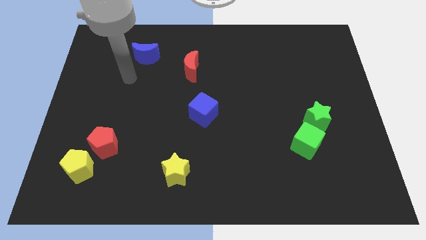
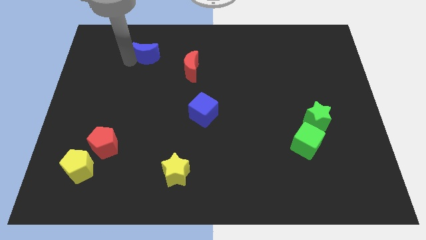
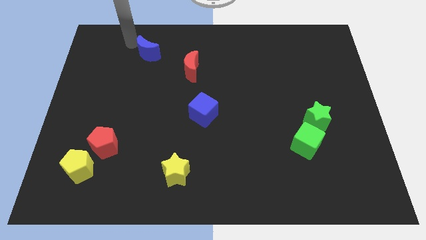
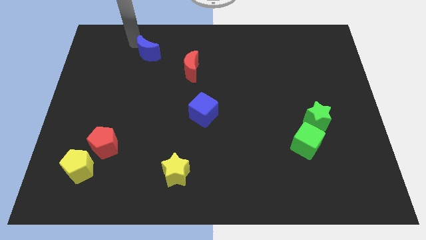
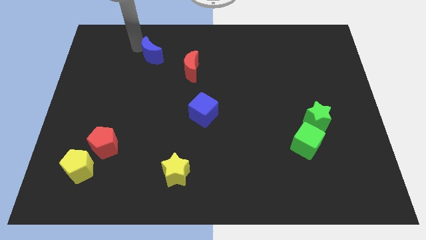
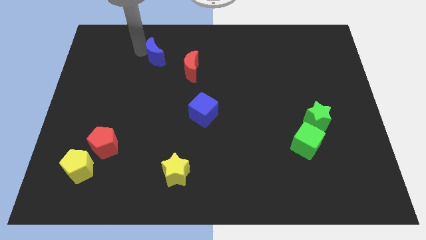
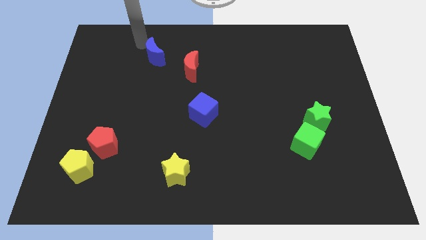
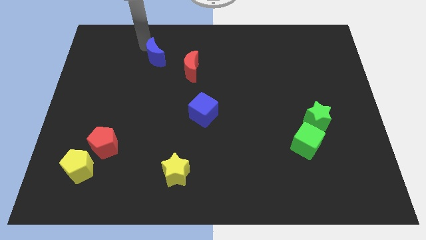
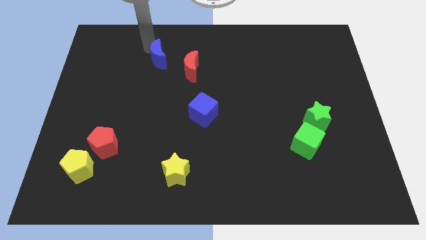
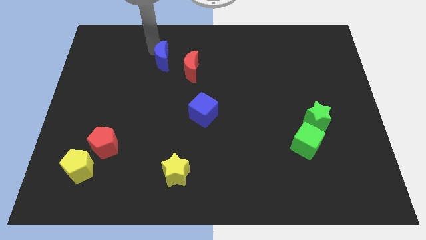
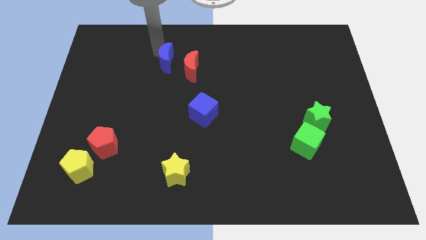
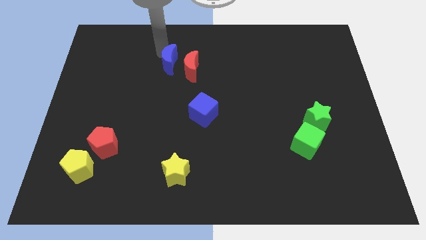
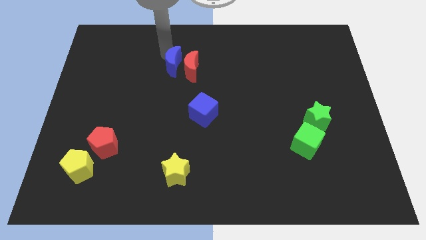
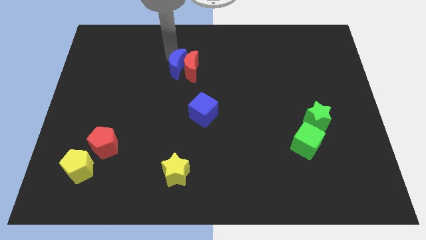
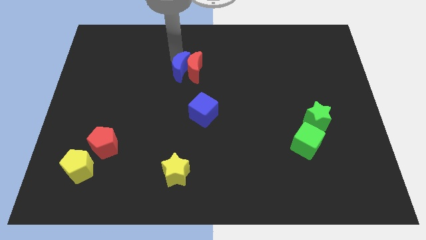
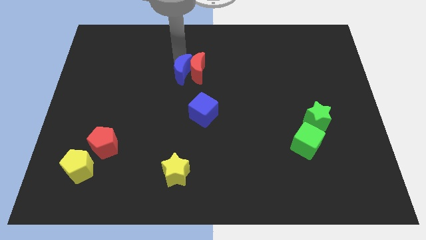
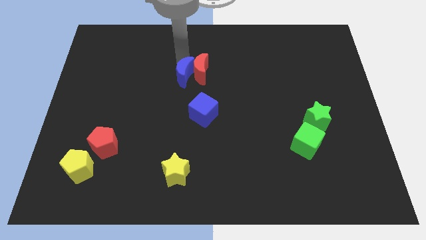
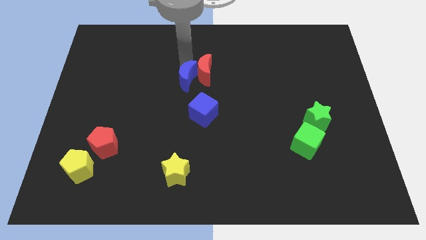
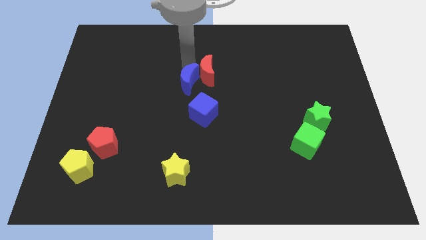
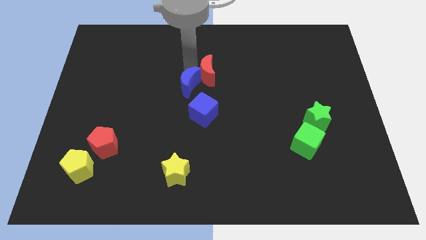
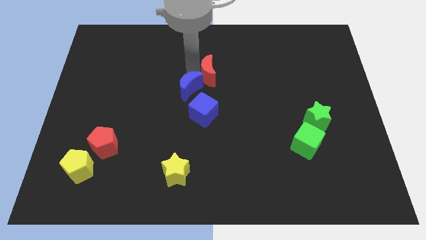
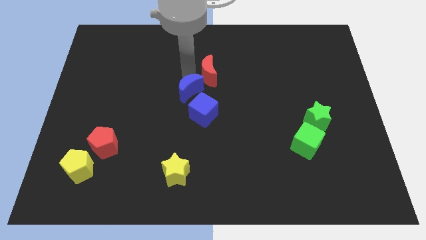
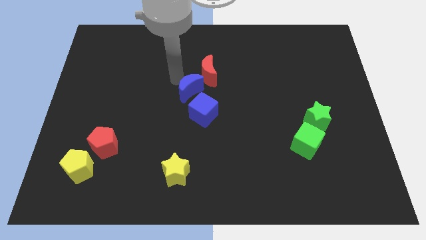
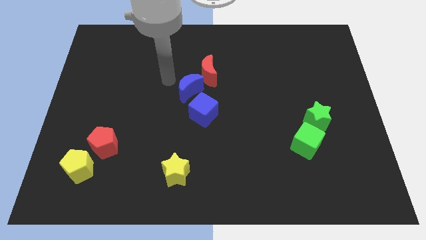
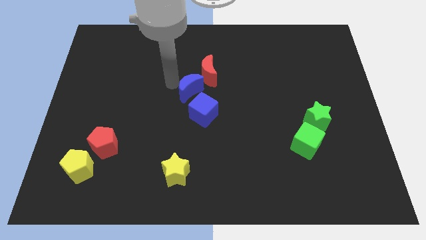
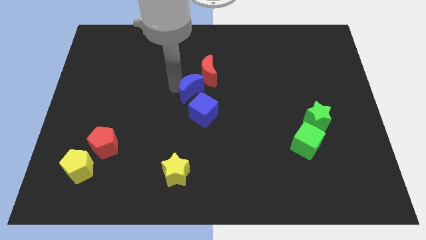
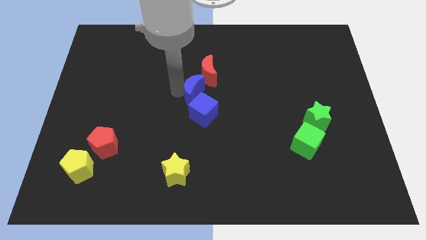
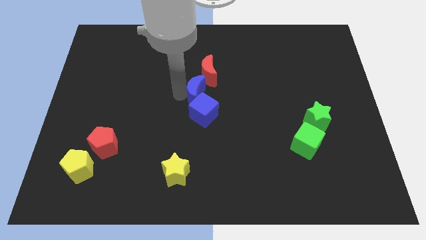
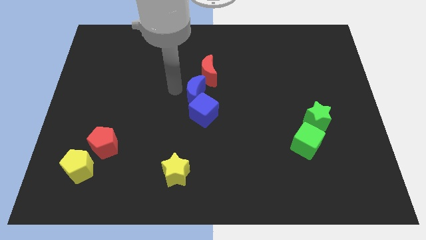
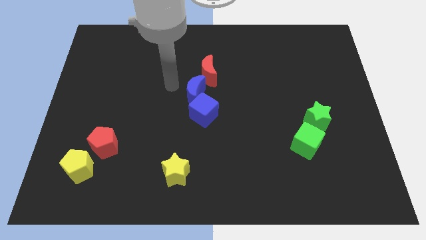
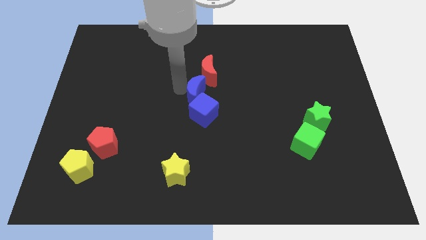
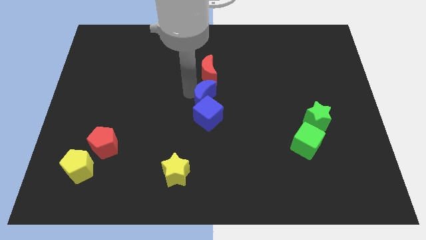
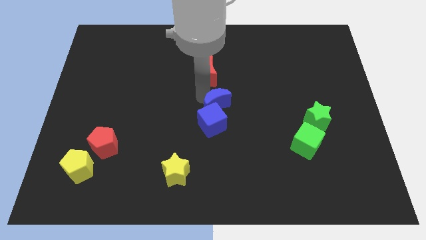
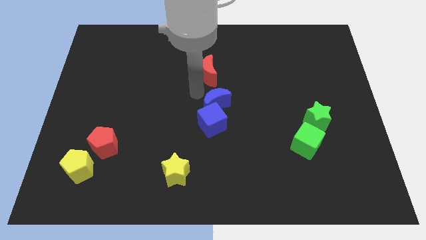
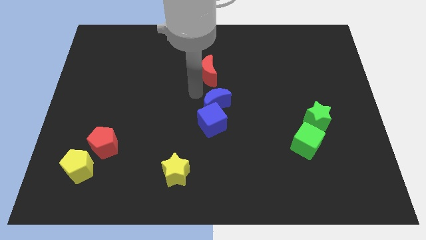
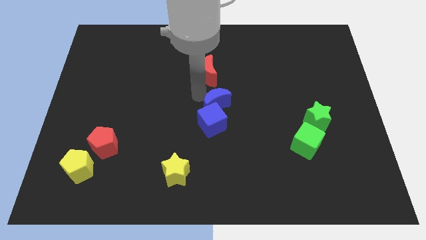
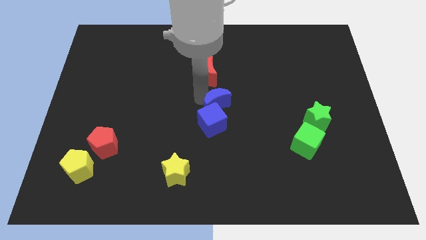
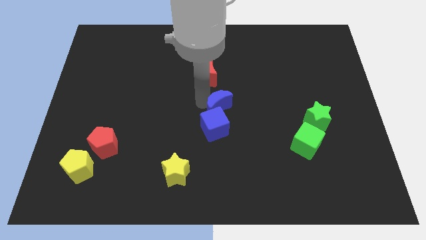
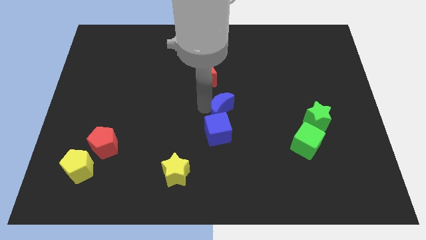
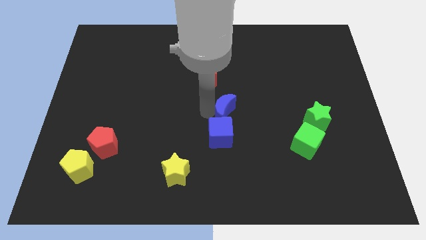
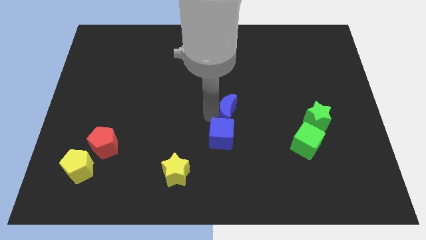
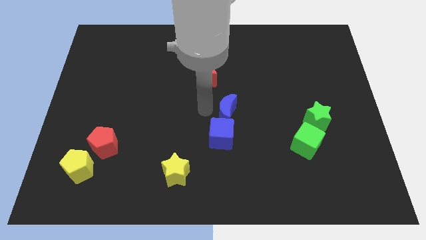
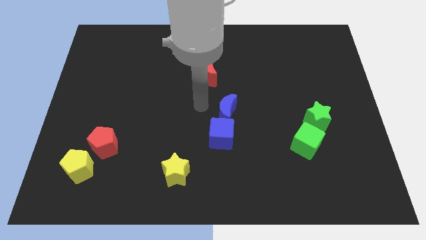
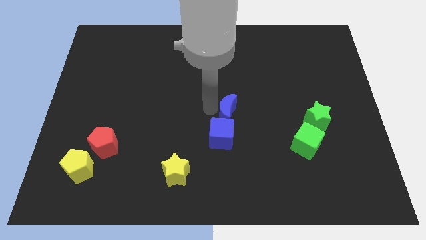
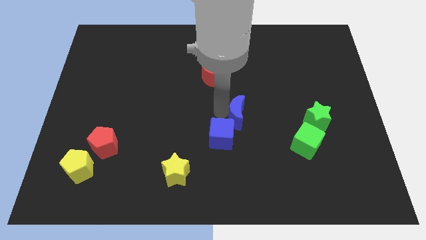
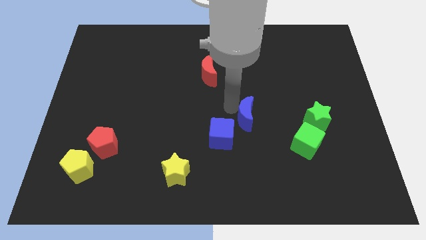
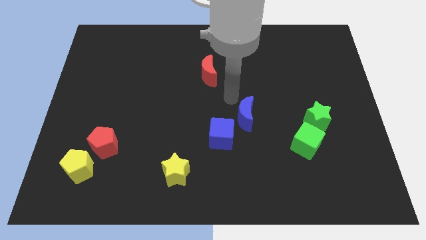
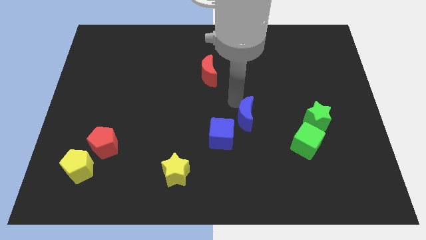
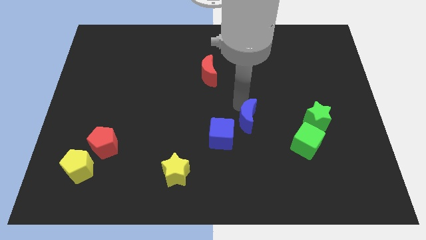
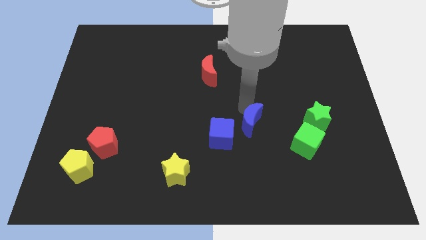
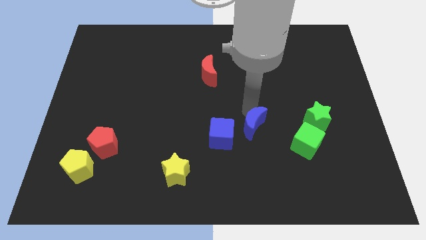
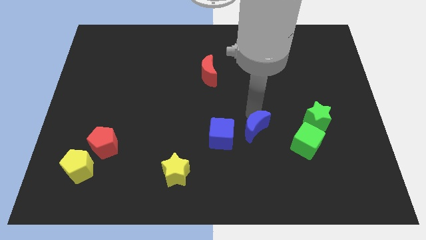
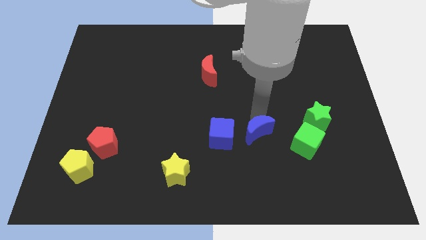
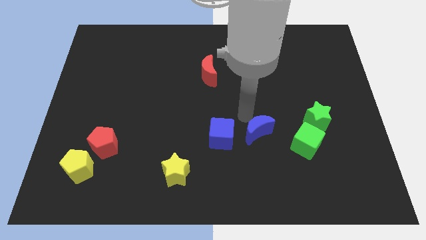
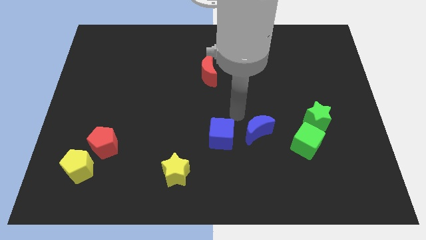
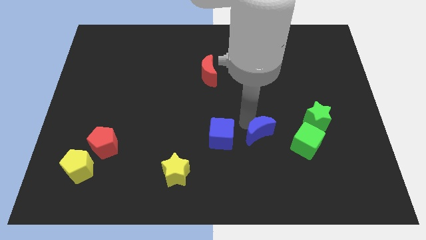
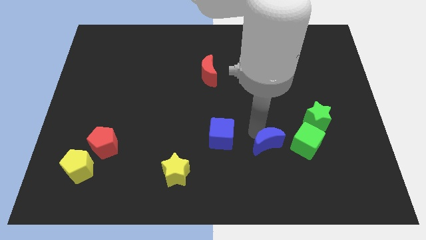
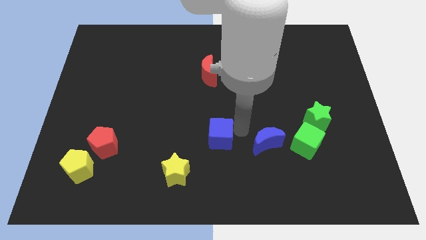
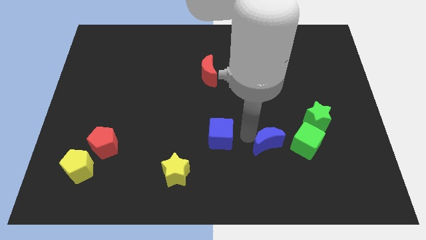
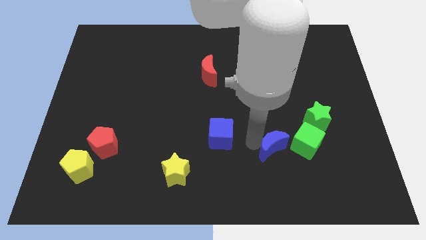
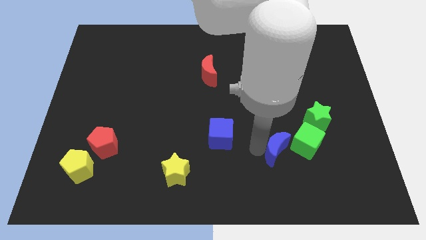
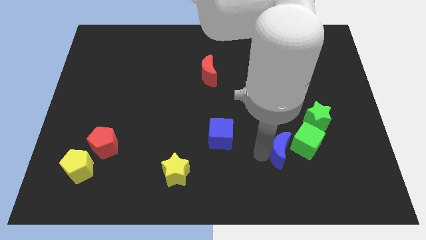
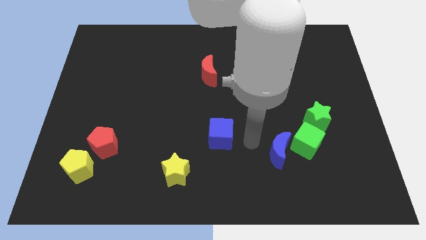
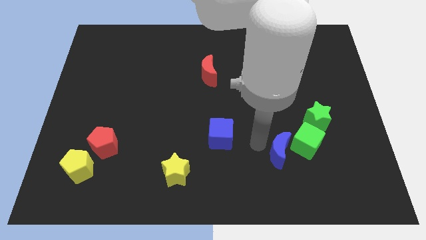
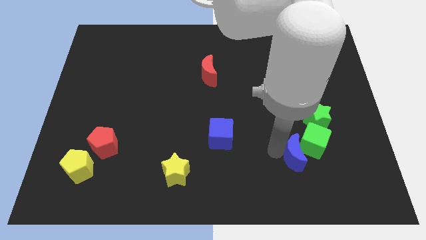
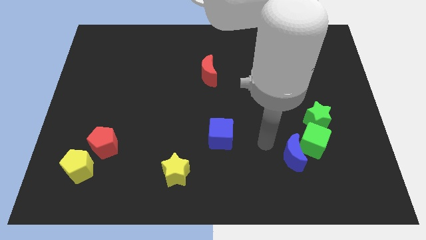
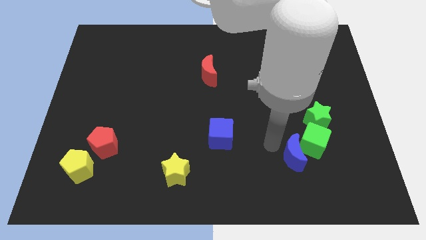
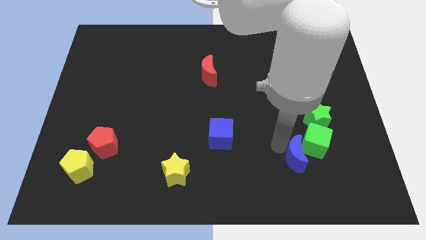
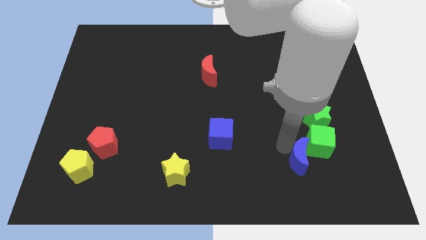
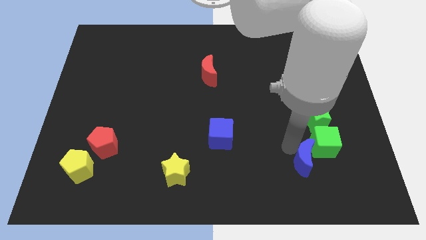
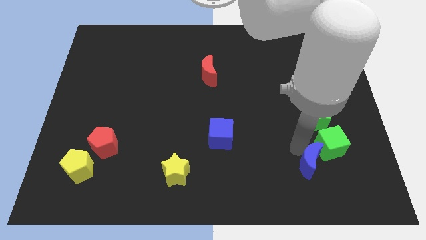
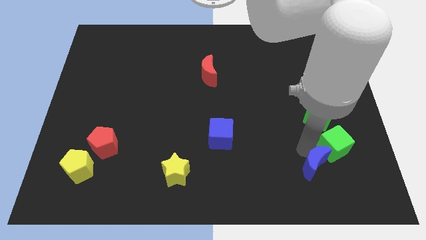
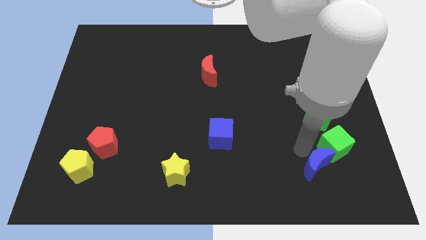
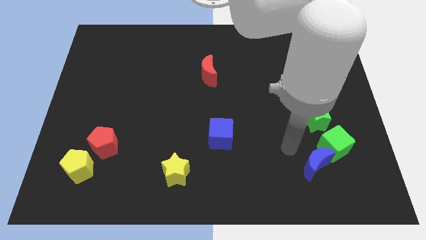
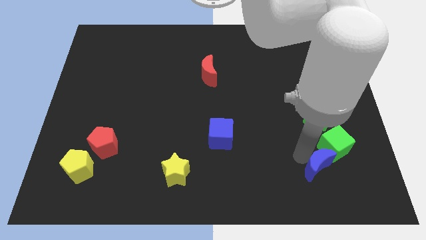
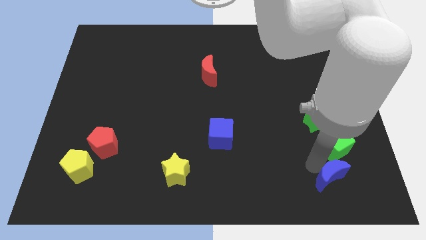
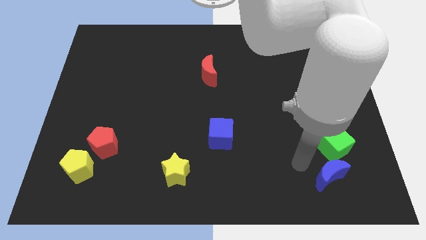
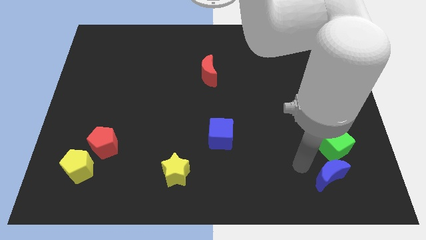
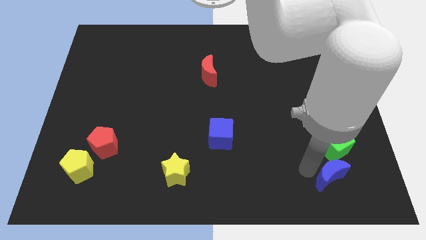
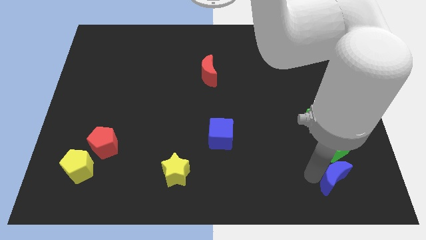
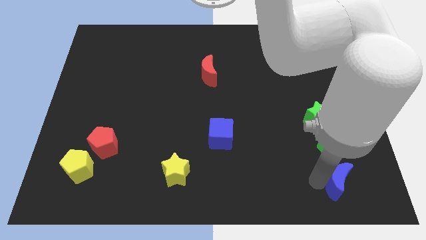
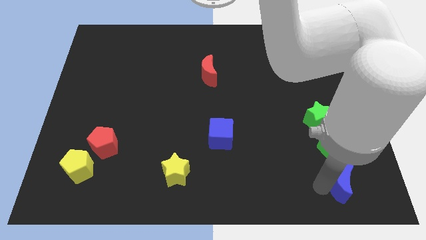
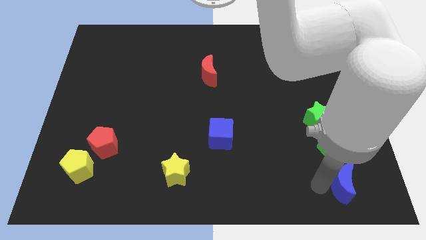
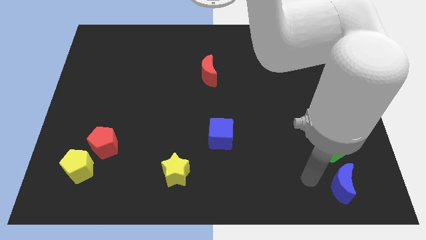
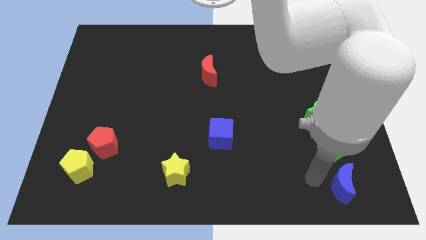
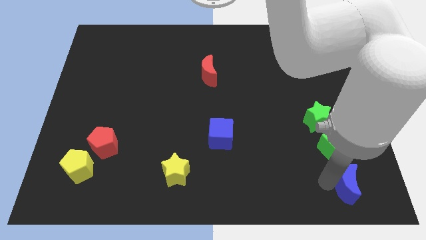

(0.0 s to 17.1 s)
slide the blue moon to the bottom right of the board
